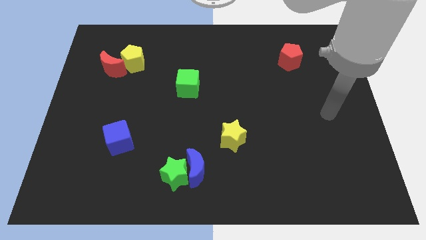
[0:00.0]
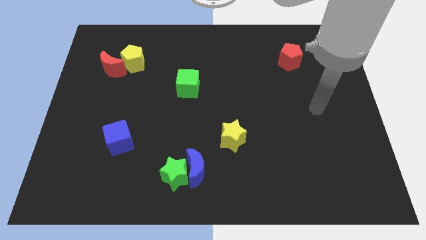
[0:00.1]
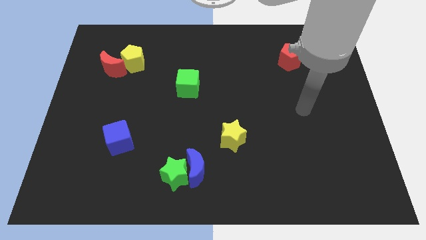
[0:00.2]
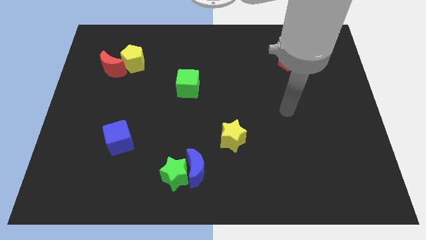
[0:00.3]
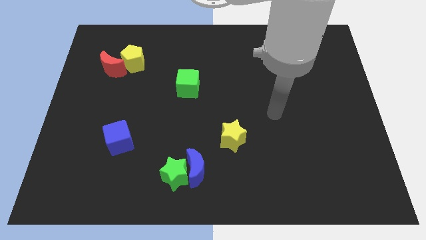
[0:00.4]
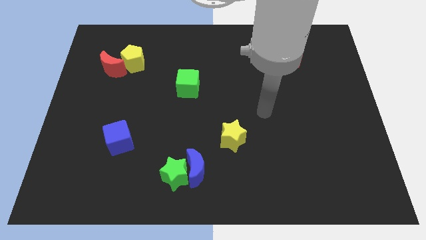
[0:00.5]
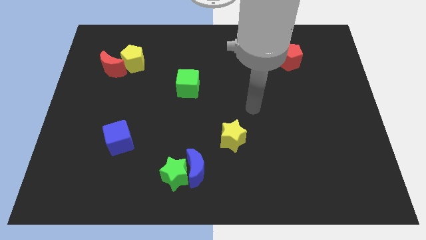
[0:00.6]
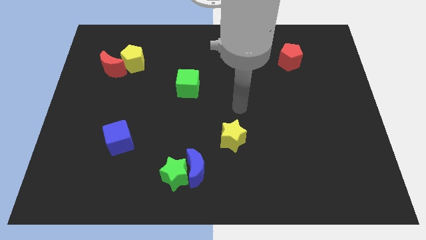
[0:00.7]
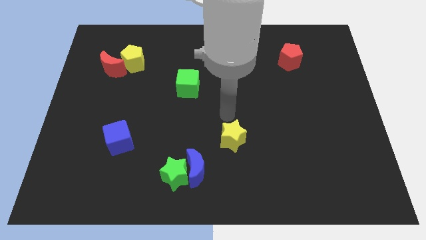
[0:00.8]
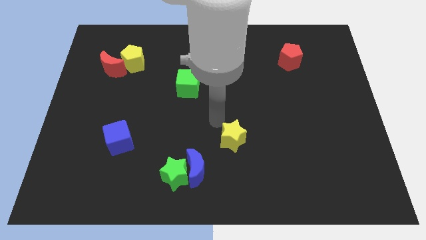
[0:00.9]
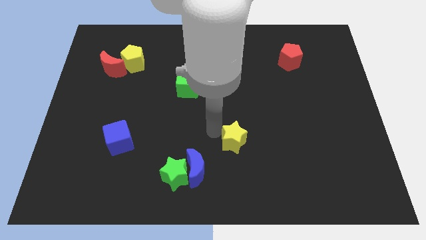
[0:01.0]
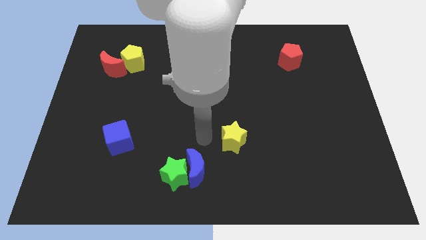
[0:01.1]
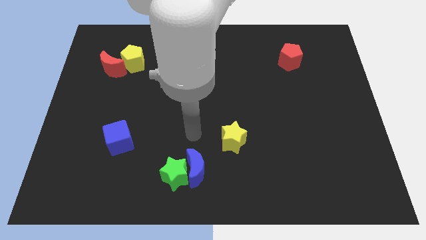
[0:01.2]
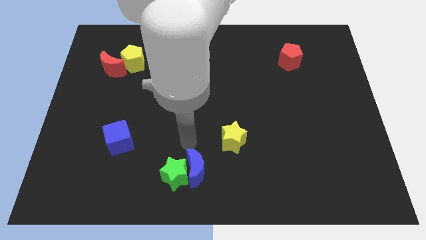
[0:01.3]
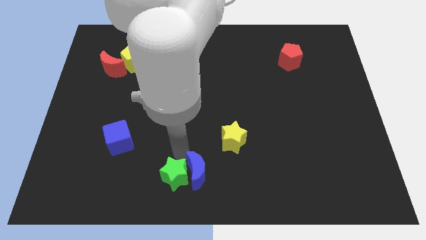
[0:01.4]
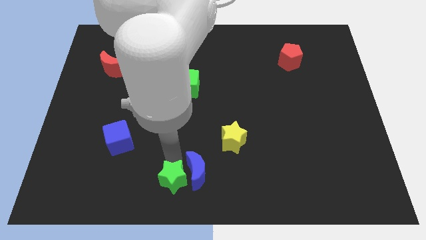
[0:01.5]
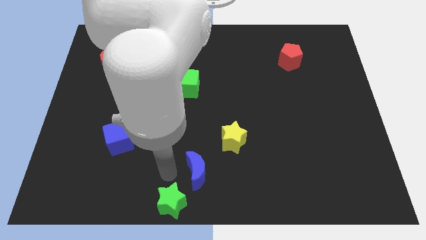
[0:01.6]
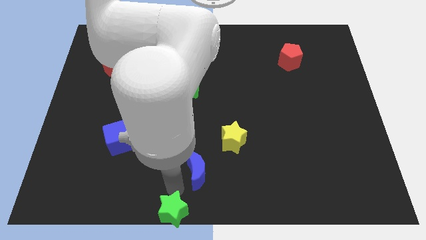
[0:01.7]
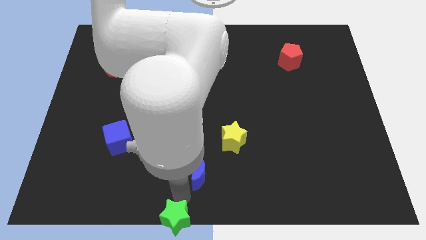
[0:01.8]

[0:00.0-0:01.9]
separate the blue moon from the green star

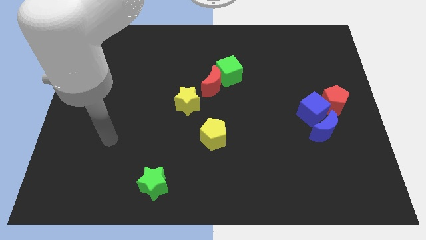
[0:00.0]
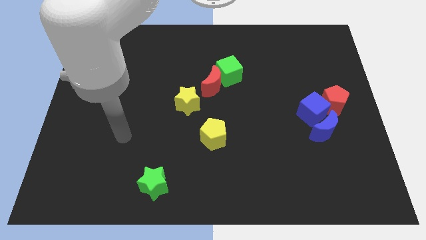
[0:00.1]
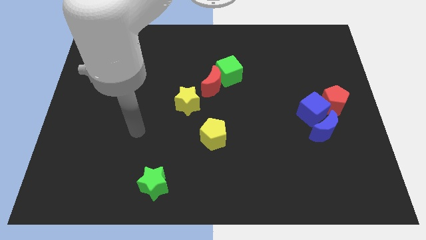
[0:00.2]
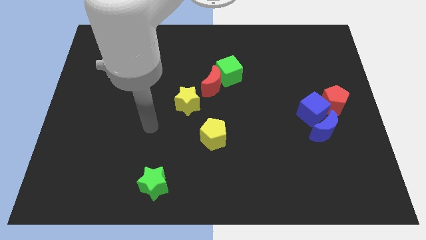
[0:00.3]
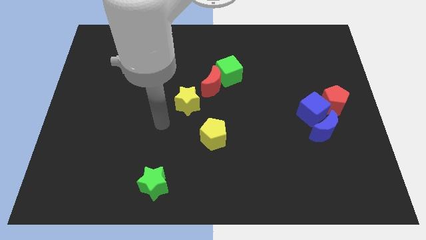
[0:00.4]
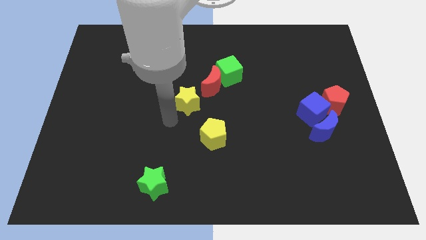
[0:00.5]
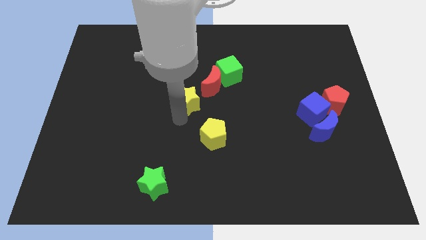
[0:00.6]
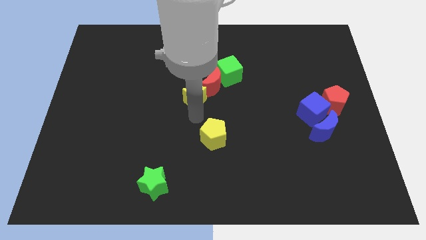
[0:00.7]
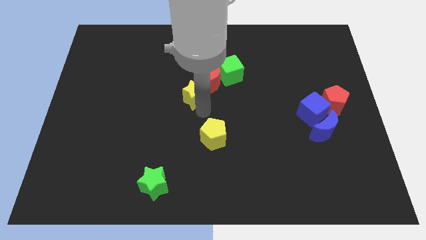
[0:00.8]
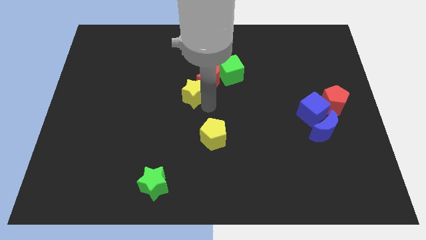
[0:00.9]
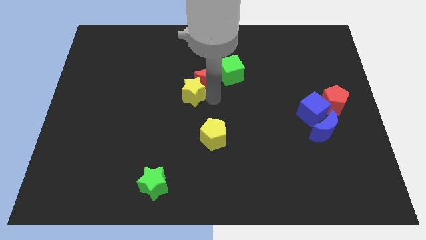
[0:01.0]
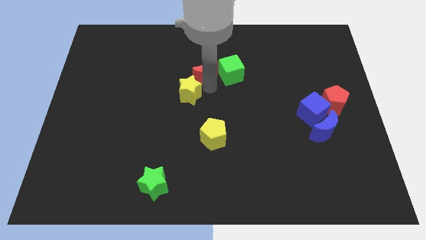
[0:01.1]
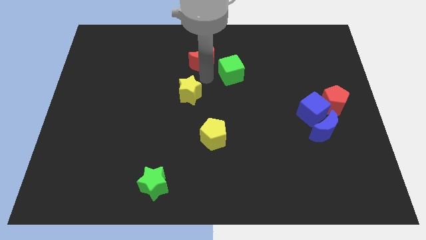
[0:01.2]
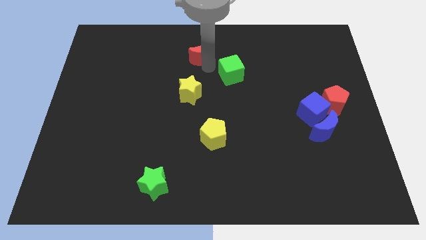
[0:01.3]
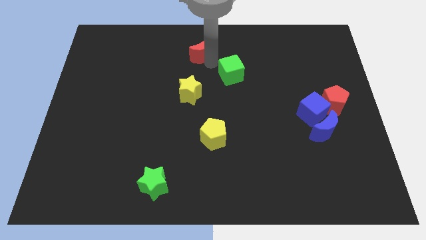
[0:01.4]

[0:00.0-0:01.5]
separate the green cube from the red moon

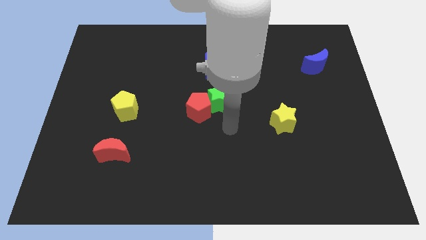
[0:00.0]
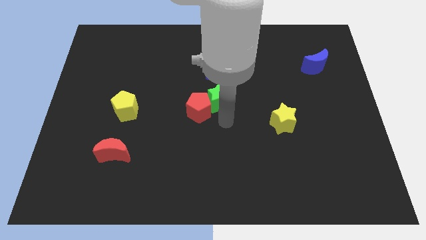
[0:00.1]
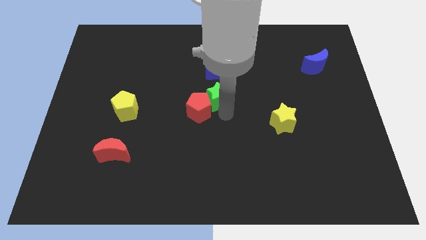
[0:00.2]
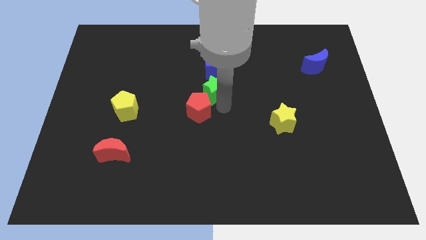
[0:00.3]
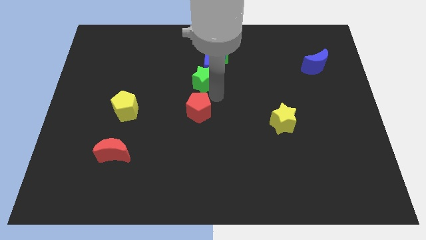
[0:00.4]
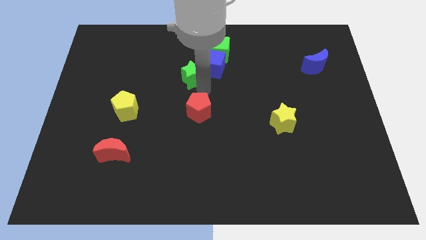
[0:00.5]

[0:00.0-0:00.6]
separate the red pentagon from the green star

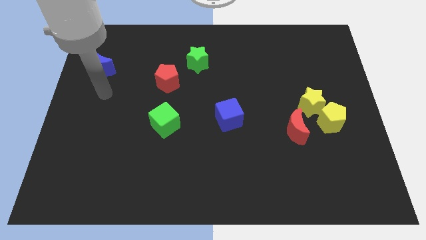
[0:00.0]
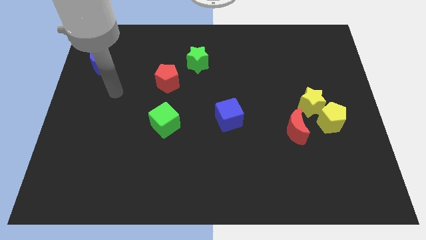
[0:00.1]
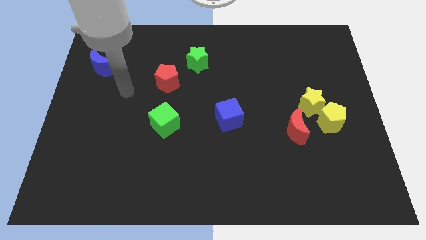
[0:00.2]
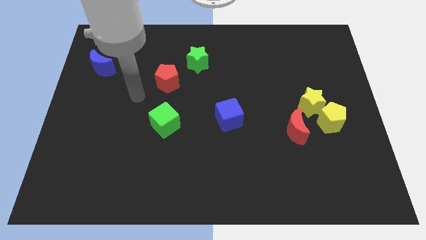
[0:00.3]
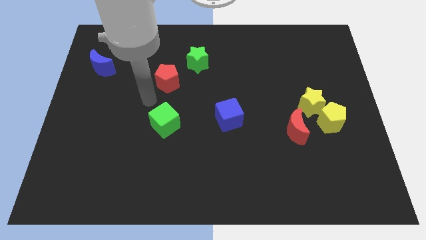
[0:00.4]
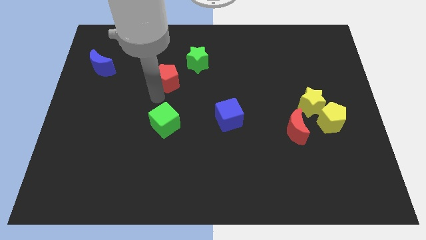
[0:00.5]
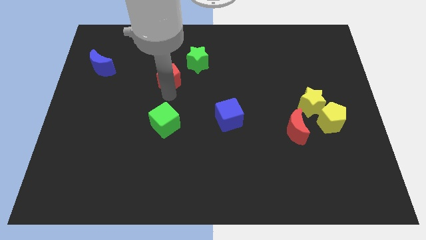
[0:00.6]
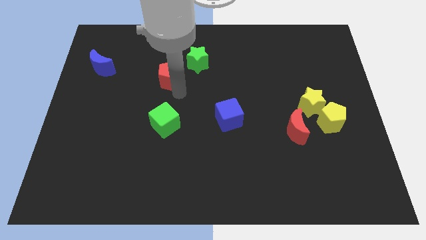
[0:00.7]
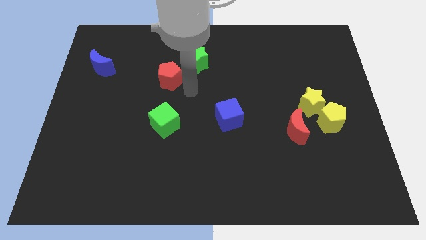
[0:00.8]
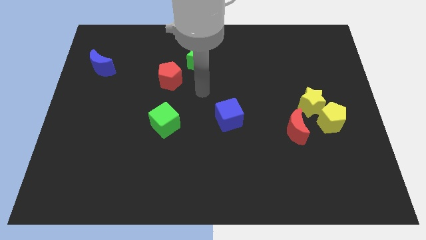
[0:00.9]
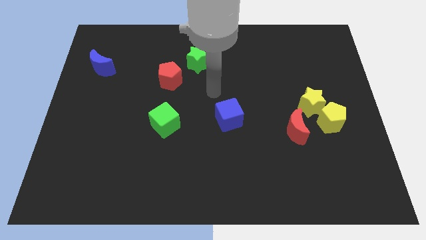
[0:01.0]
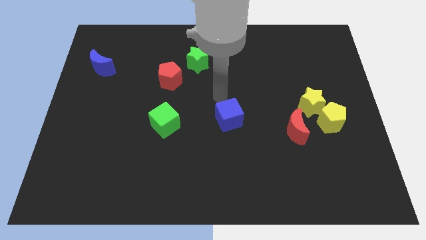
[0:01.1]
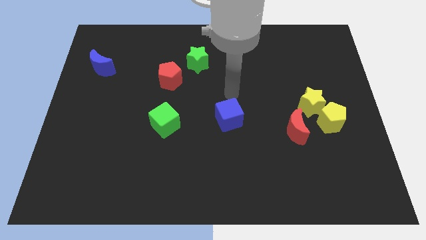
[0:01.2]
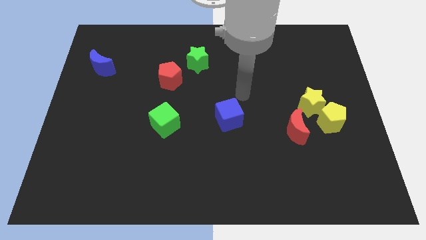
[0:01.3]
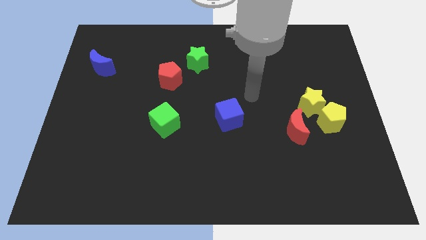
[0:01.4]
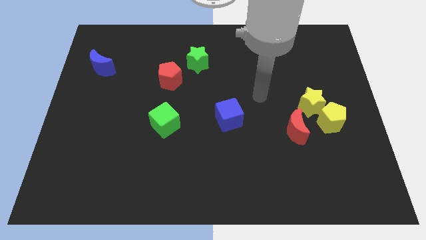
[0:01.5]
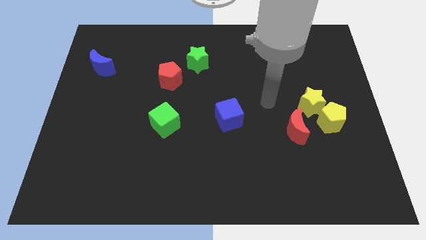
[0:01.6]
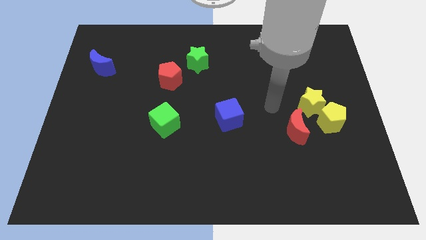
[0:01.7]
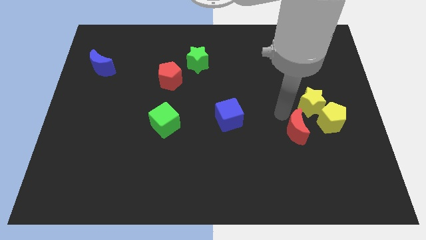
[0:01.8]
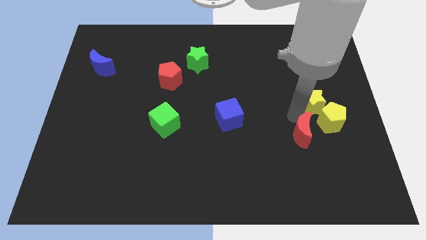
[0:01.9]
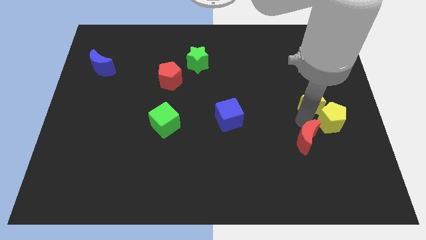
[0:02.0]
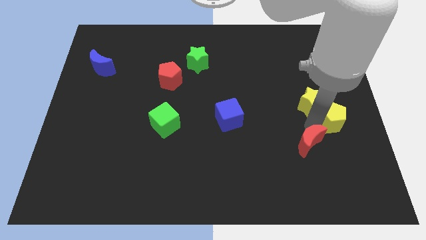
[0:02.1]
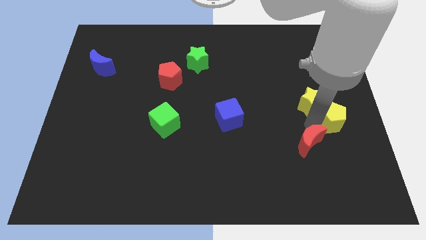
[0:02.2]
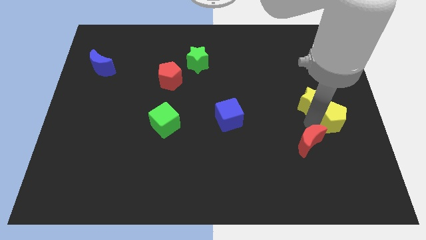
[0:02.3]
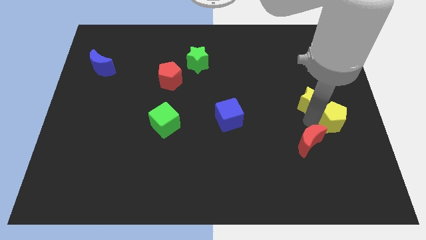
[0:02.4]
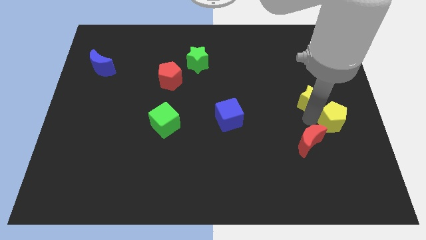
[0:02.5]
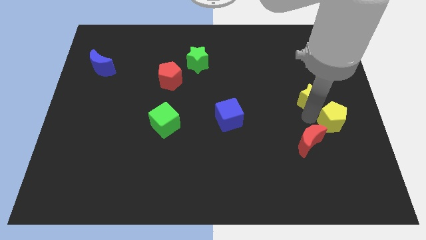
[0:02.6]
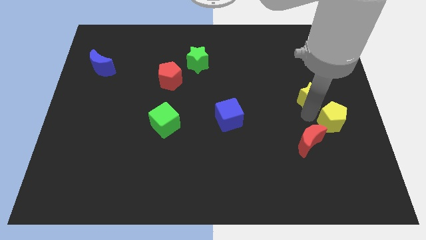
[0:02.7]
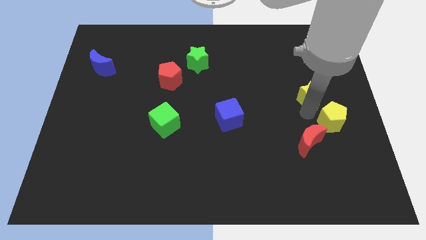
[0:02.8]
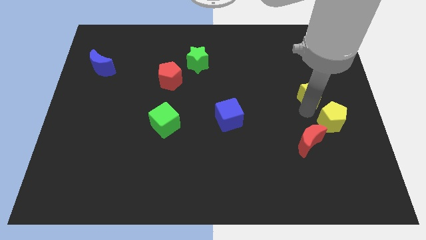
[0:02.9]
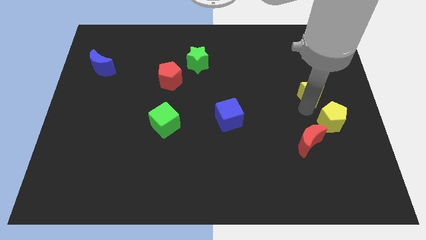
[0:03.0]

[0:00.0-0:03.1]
pull the yellow star apart from the yellow pentagon and red moon

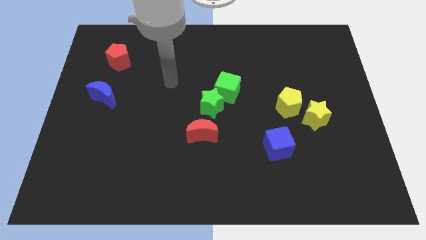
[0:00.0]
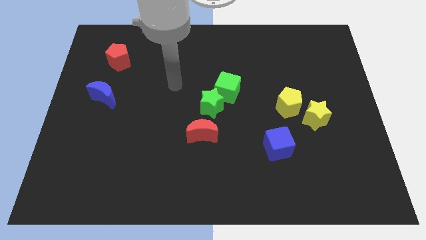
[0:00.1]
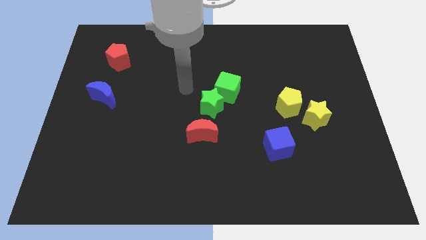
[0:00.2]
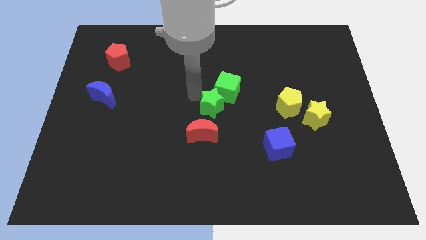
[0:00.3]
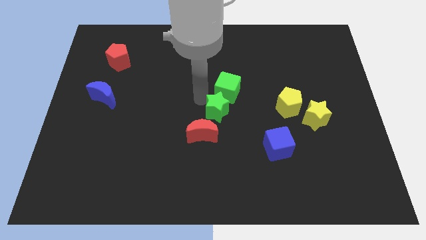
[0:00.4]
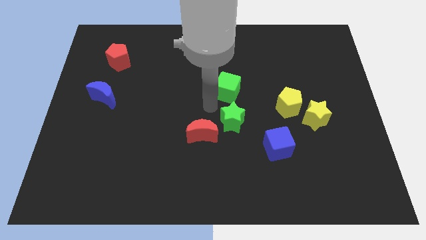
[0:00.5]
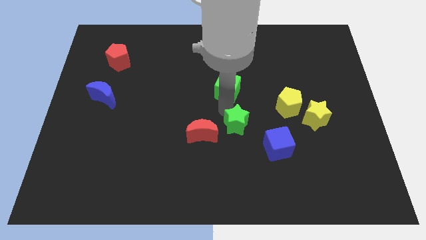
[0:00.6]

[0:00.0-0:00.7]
move the green cube away from the green star

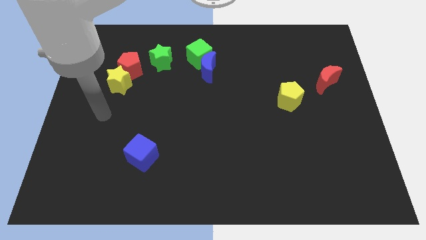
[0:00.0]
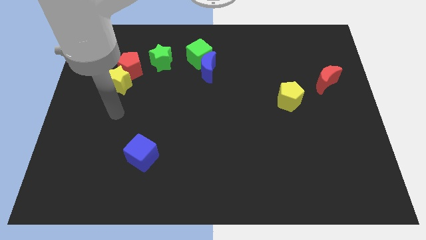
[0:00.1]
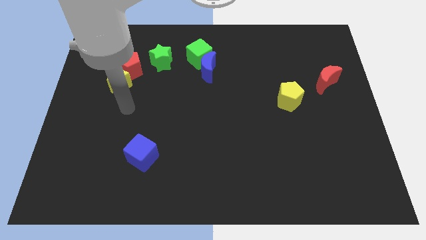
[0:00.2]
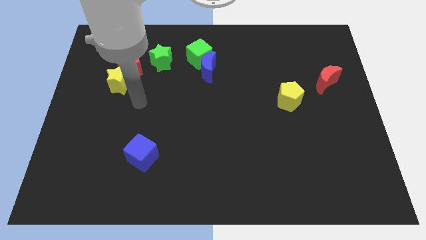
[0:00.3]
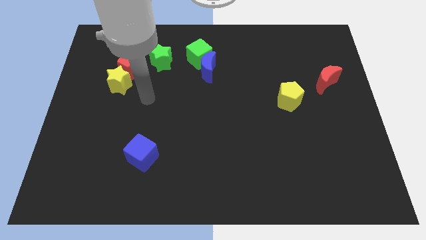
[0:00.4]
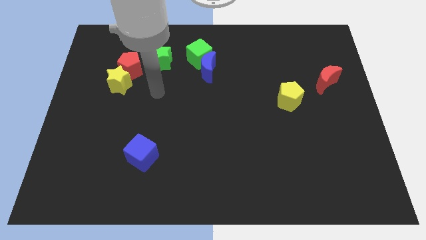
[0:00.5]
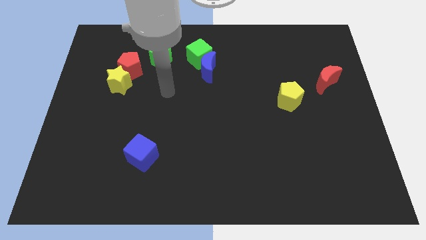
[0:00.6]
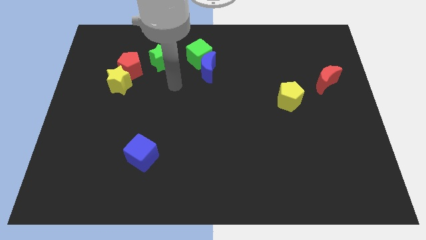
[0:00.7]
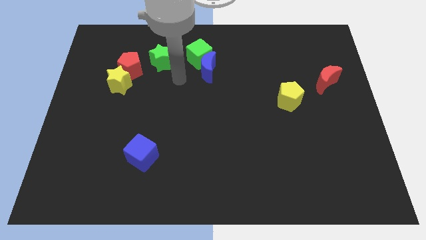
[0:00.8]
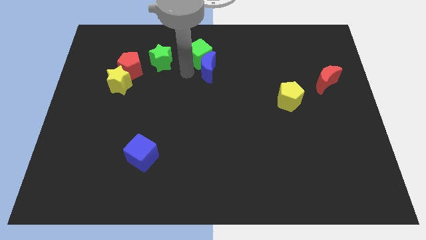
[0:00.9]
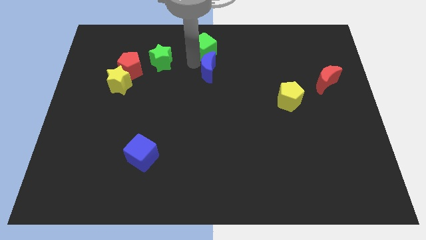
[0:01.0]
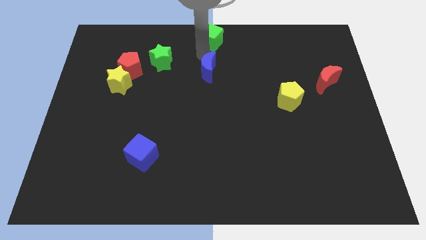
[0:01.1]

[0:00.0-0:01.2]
pull the blue moon apart from the green cube

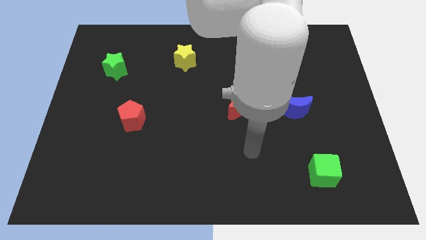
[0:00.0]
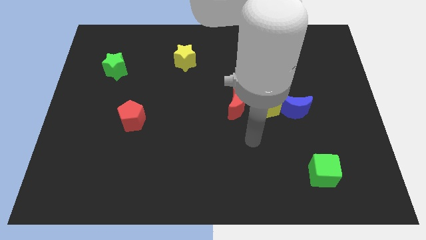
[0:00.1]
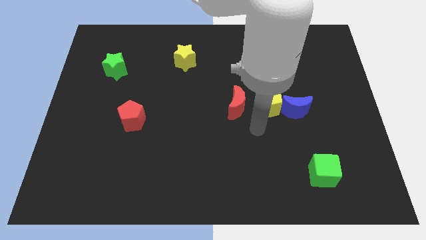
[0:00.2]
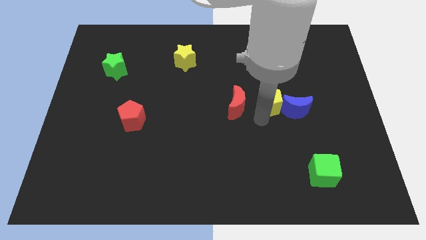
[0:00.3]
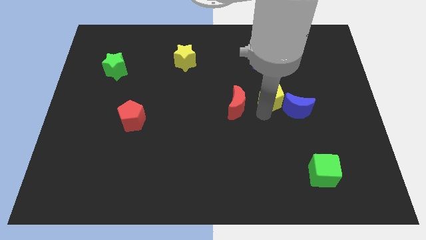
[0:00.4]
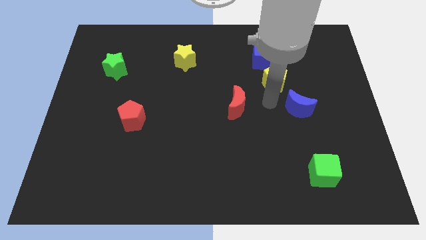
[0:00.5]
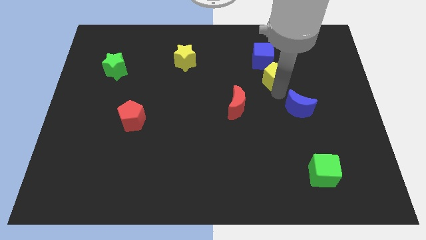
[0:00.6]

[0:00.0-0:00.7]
pull the blue moon apart from the yellow pentagon
